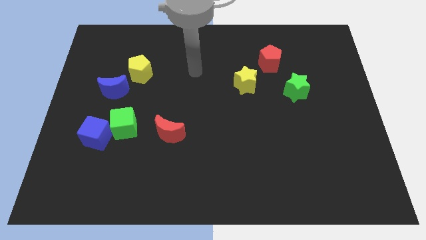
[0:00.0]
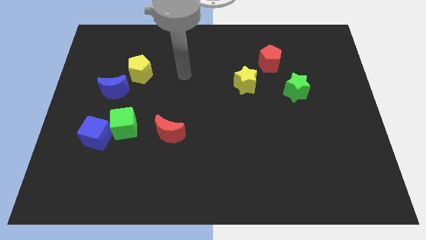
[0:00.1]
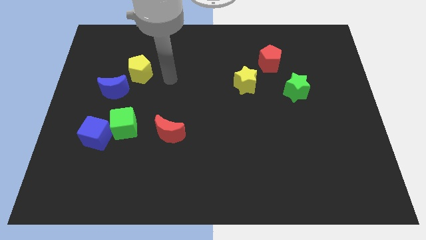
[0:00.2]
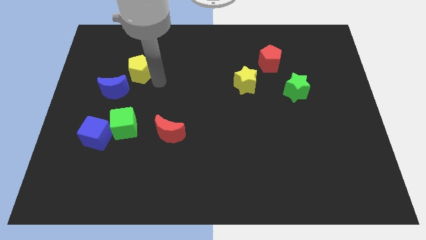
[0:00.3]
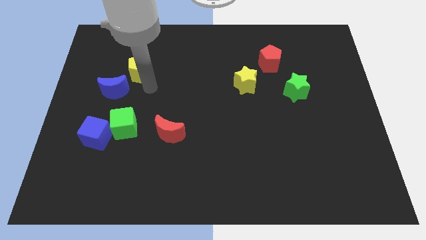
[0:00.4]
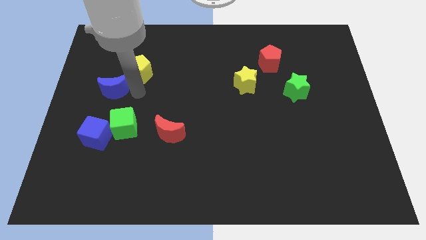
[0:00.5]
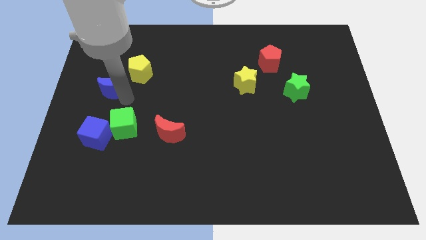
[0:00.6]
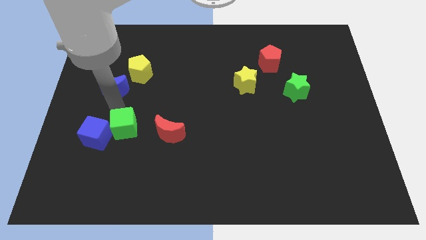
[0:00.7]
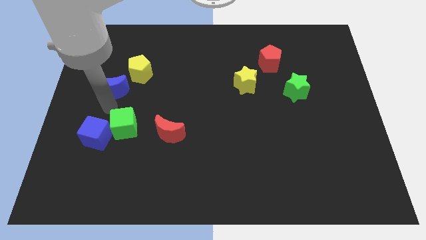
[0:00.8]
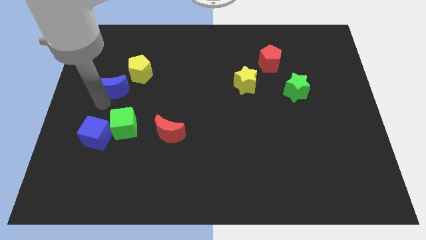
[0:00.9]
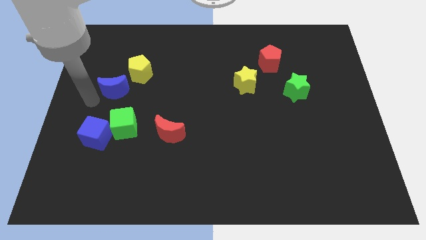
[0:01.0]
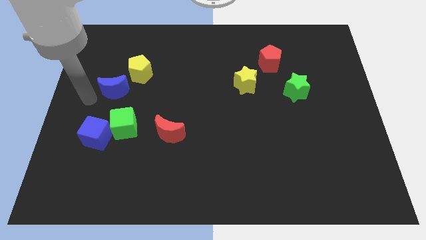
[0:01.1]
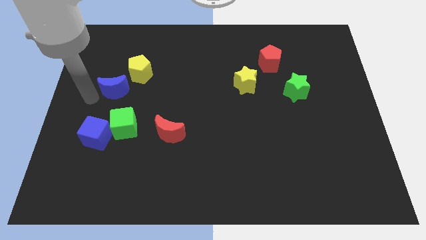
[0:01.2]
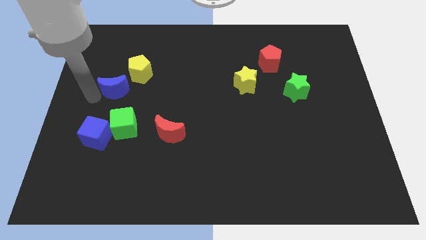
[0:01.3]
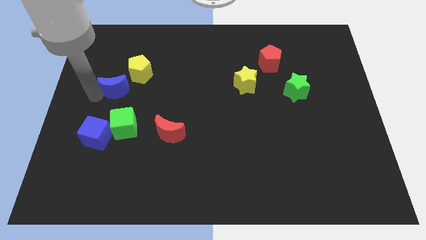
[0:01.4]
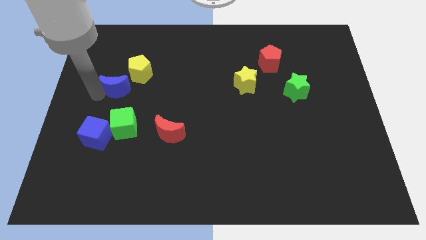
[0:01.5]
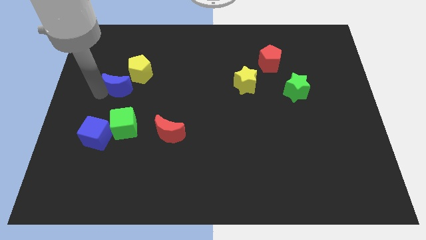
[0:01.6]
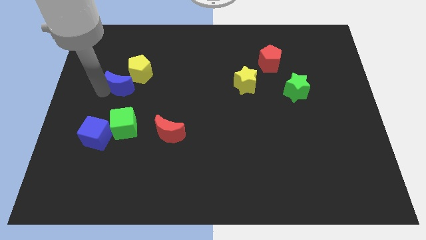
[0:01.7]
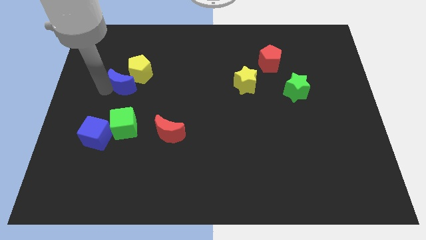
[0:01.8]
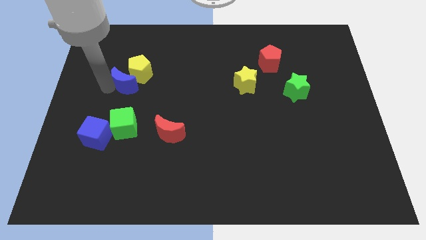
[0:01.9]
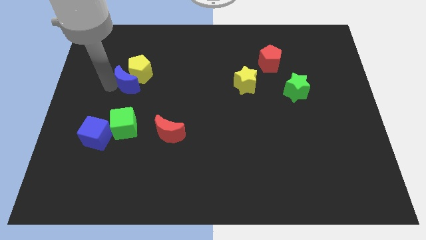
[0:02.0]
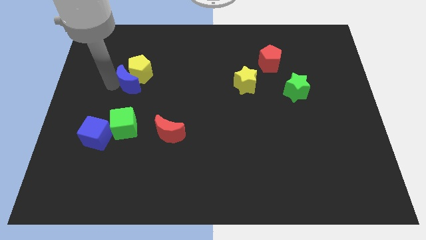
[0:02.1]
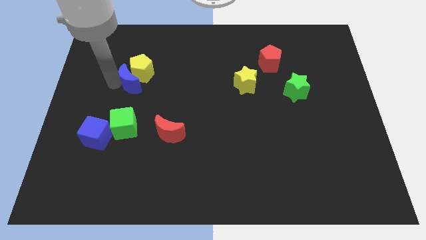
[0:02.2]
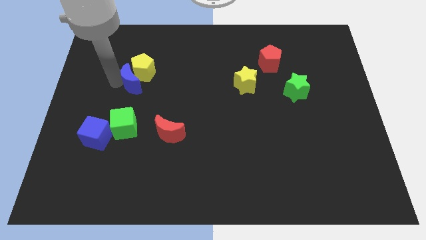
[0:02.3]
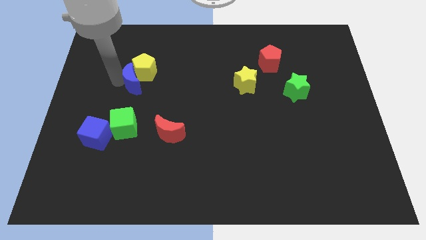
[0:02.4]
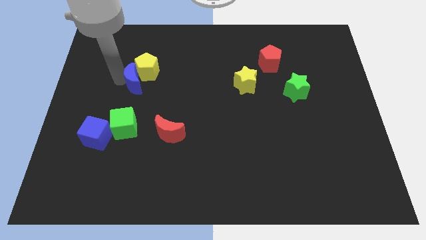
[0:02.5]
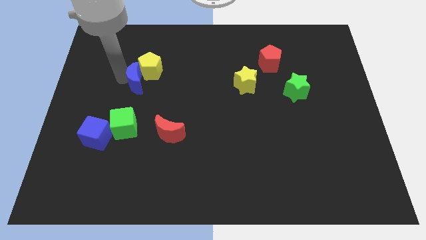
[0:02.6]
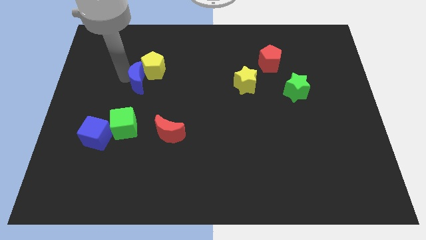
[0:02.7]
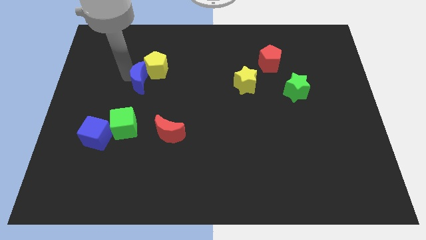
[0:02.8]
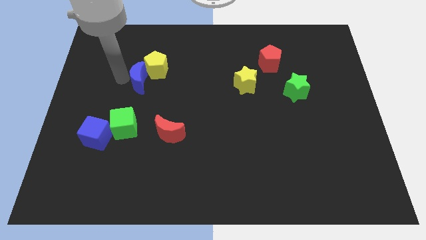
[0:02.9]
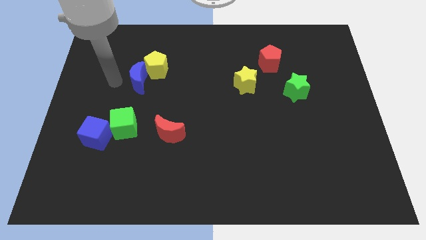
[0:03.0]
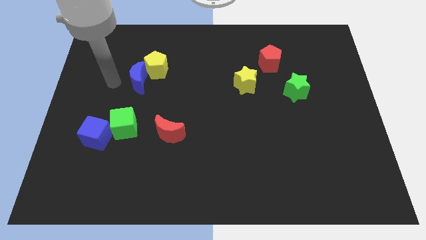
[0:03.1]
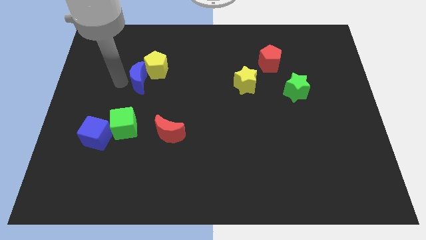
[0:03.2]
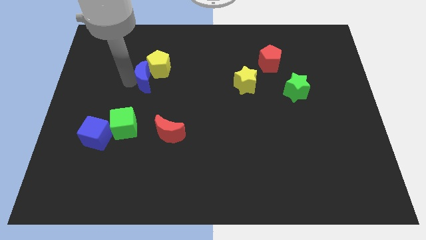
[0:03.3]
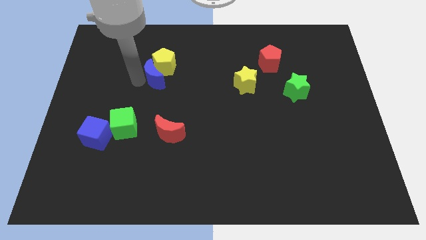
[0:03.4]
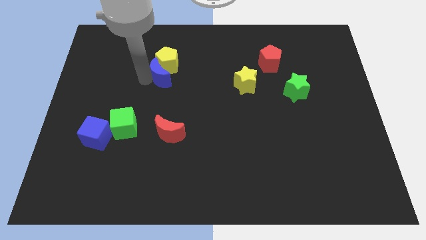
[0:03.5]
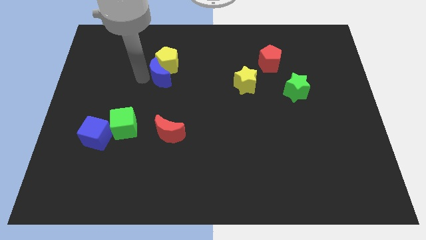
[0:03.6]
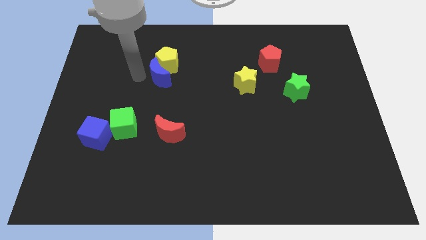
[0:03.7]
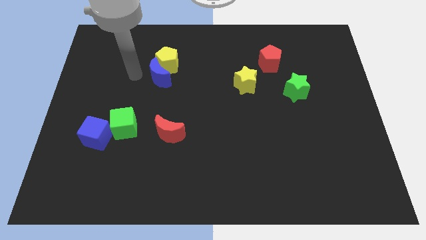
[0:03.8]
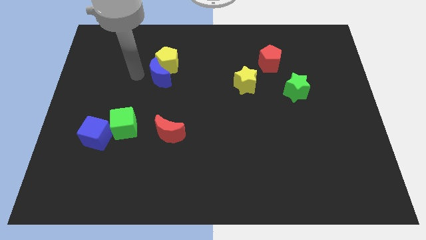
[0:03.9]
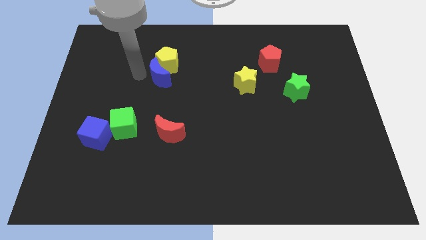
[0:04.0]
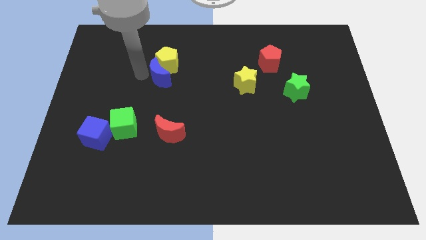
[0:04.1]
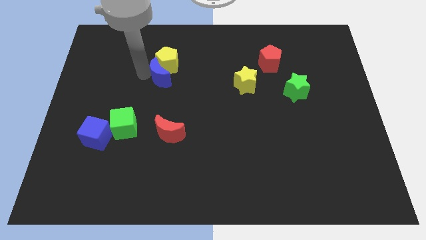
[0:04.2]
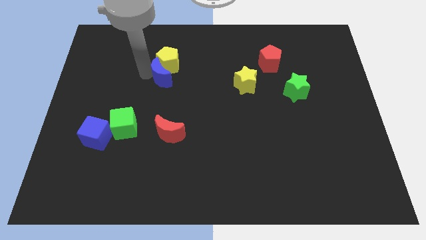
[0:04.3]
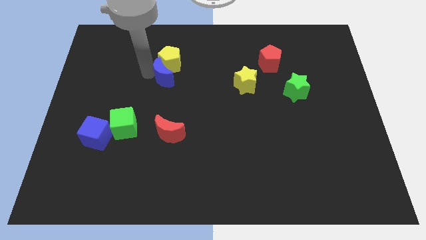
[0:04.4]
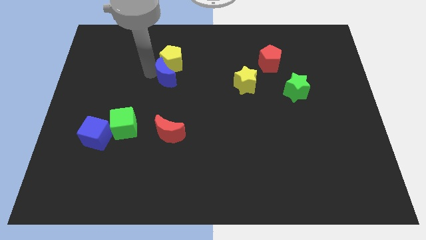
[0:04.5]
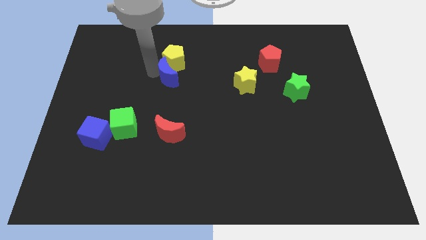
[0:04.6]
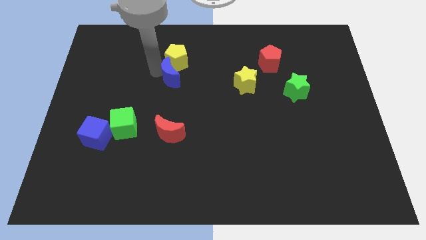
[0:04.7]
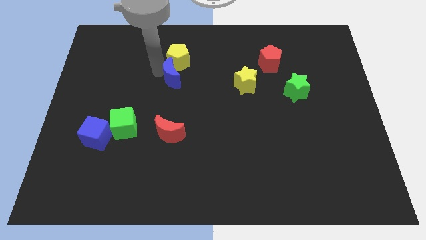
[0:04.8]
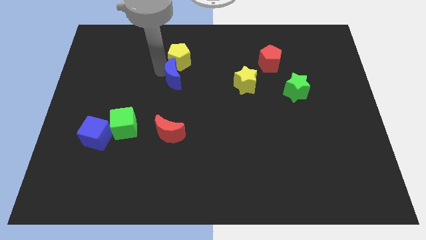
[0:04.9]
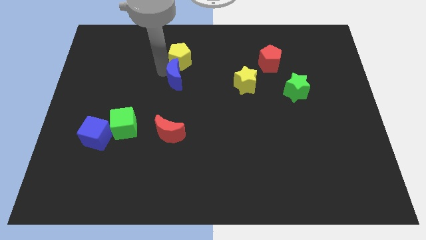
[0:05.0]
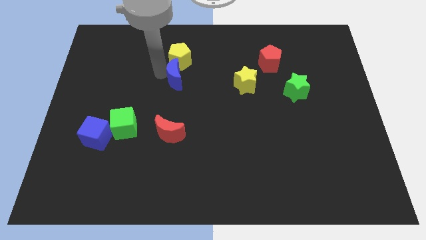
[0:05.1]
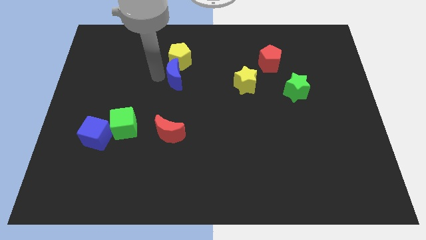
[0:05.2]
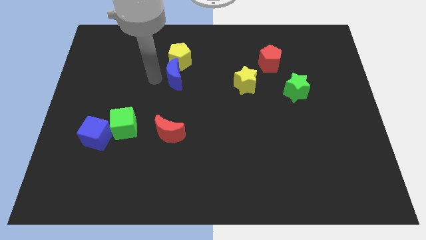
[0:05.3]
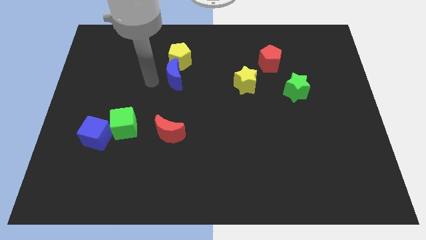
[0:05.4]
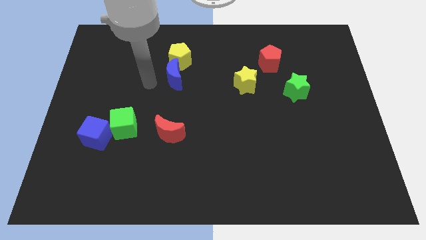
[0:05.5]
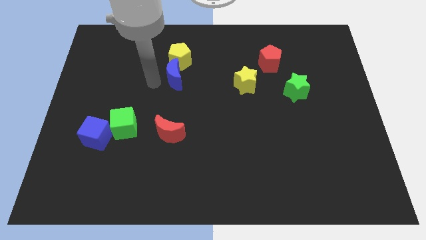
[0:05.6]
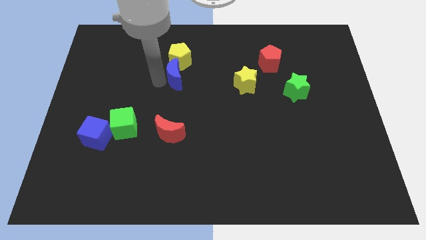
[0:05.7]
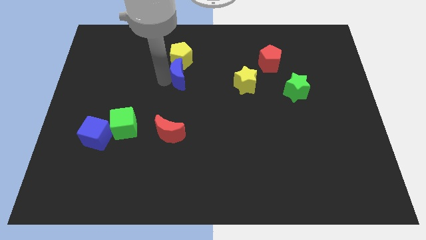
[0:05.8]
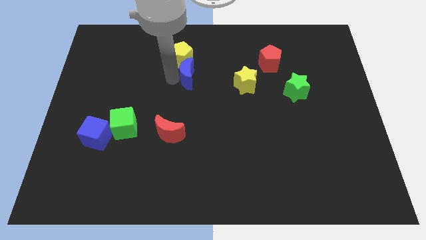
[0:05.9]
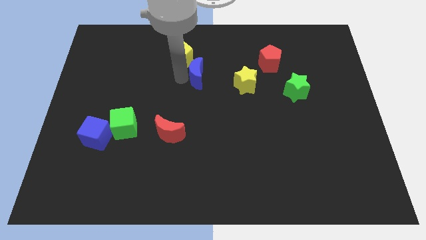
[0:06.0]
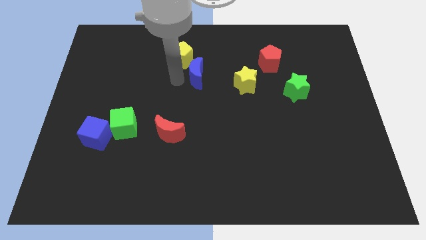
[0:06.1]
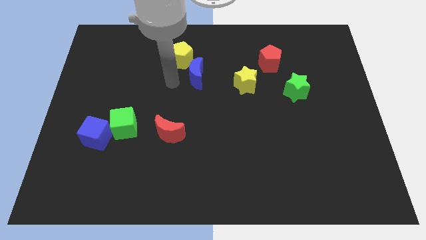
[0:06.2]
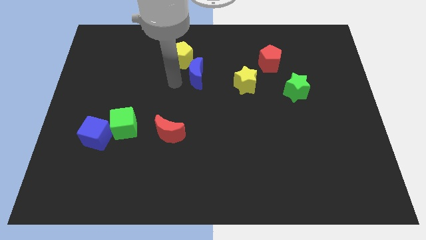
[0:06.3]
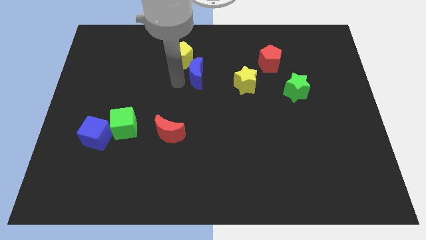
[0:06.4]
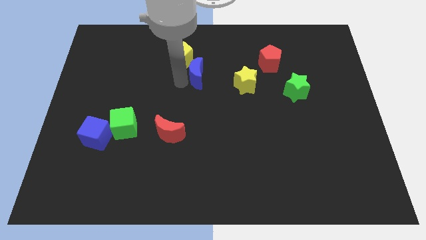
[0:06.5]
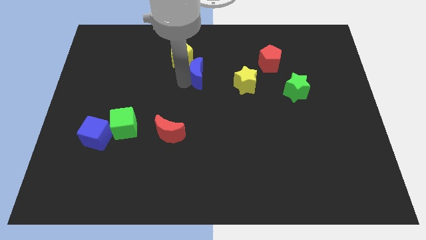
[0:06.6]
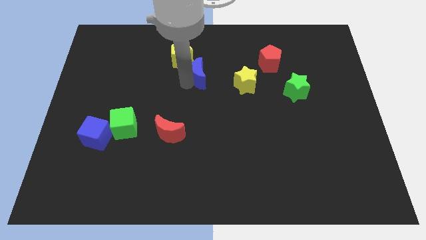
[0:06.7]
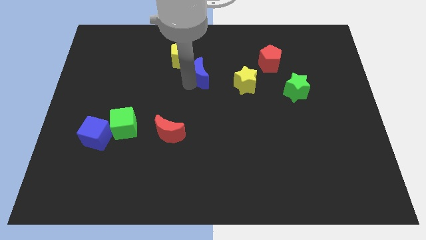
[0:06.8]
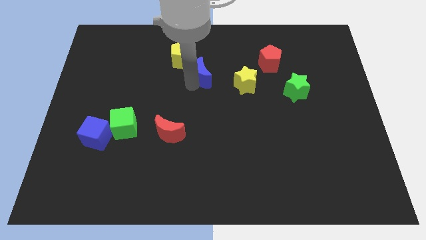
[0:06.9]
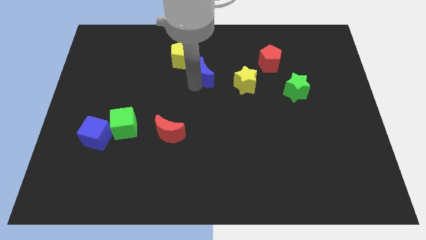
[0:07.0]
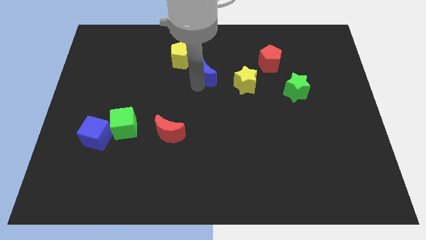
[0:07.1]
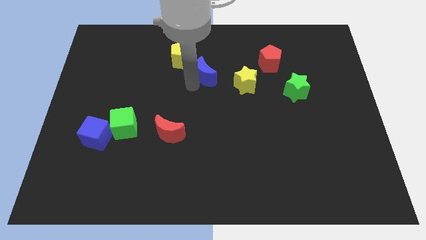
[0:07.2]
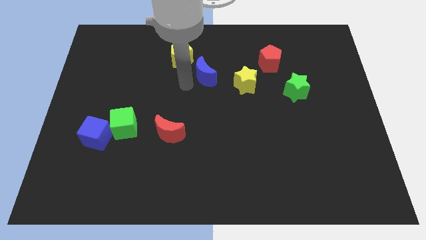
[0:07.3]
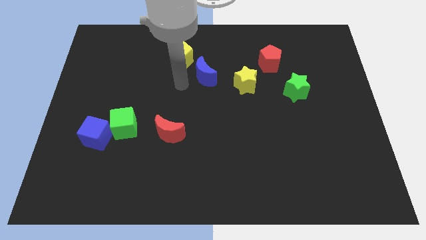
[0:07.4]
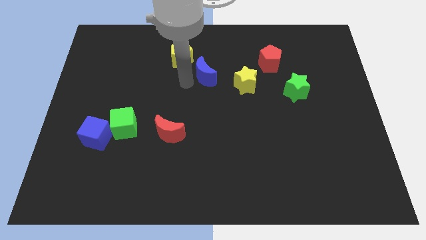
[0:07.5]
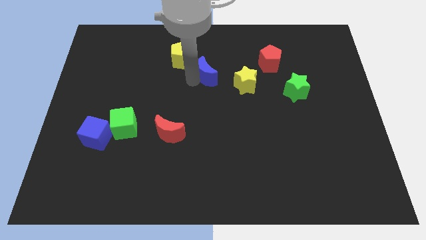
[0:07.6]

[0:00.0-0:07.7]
push the blue moon to the top left of the yellow star
